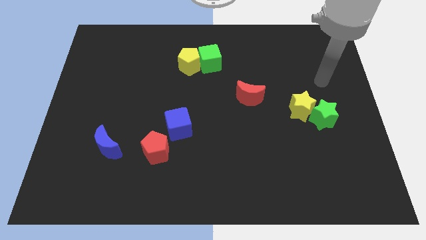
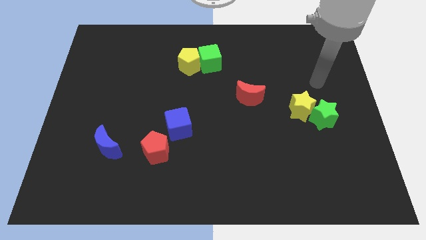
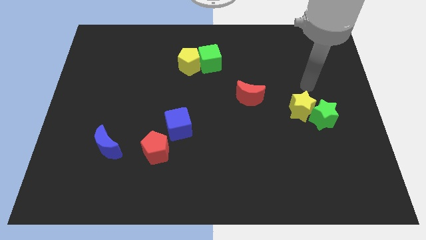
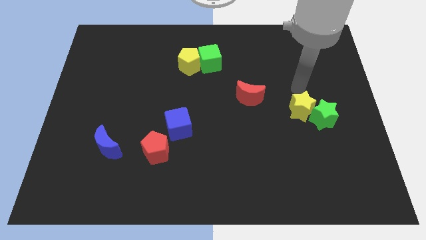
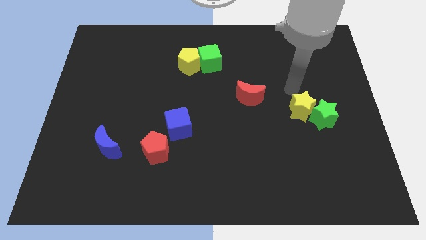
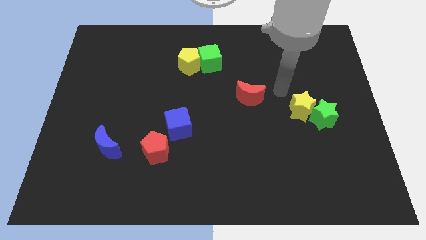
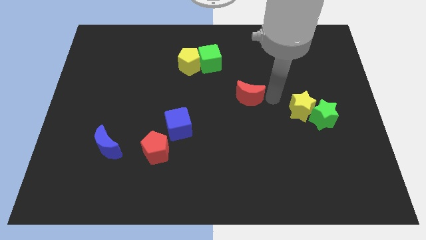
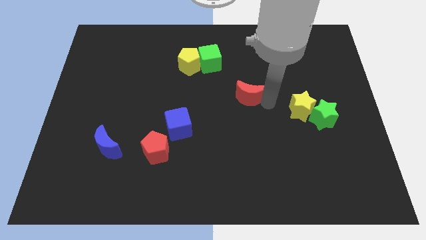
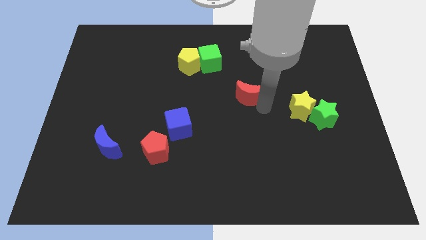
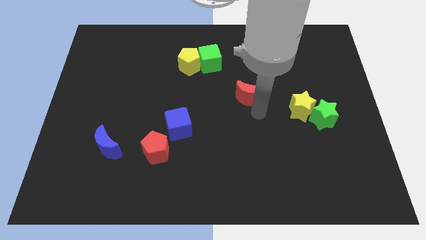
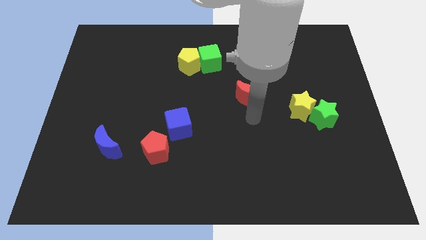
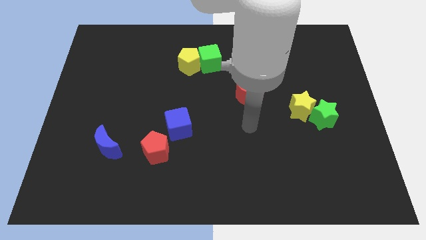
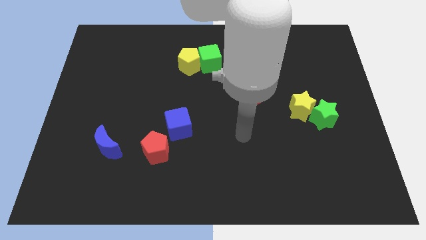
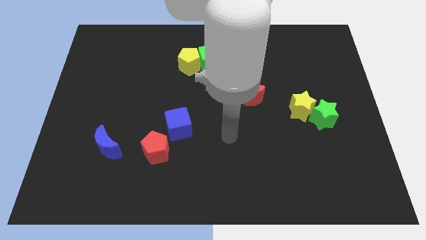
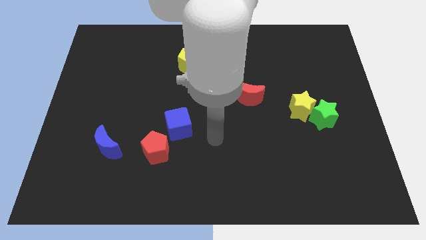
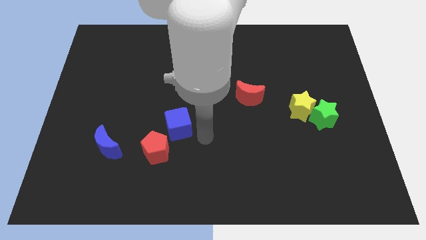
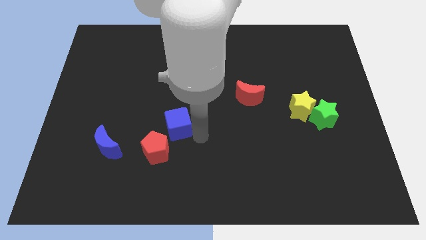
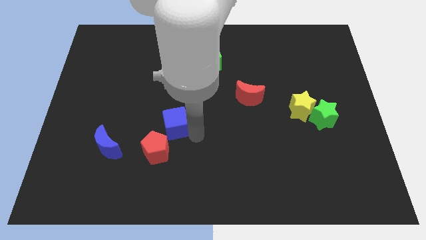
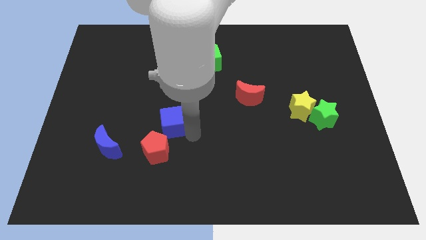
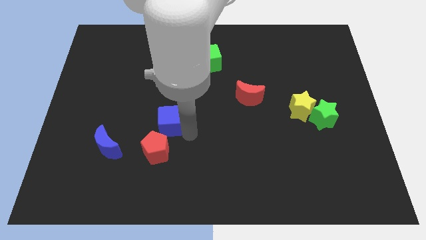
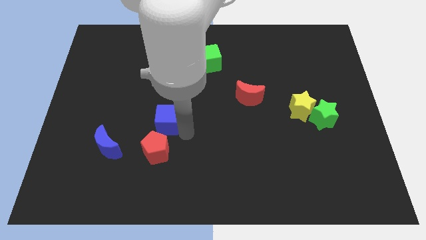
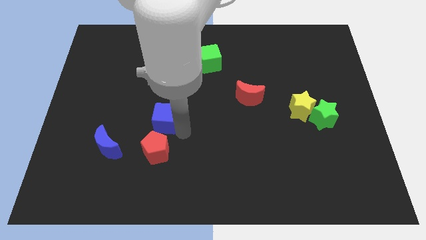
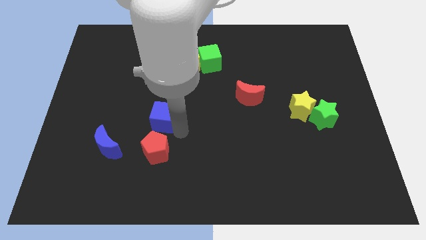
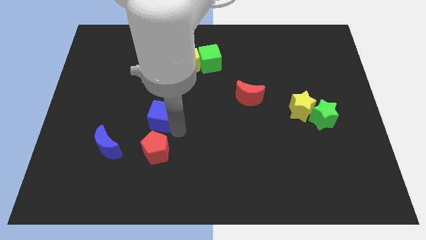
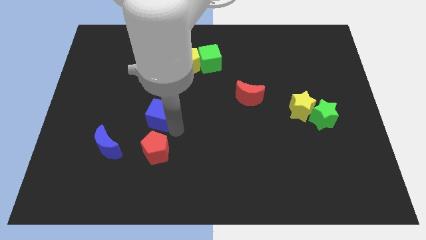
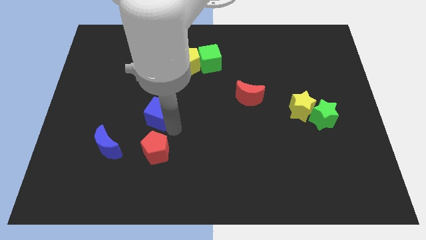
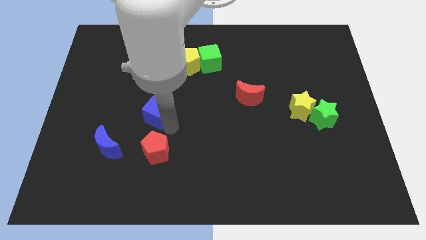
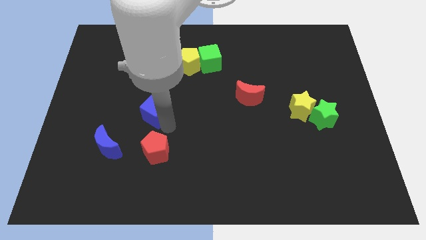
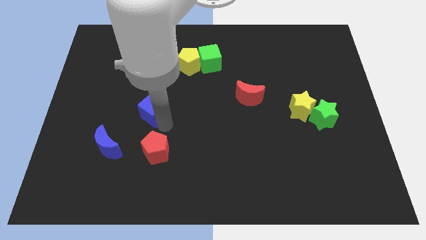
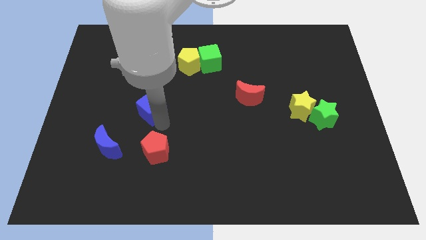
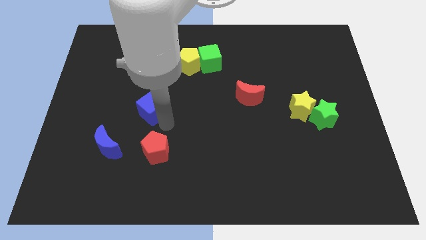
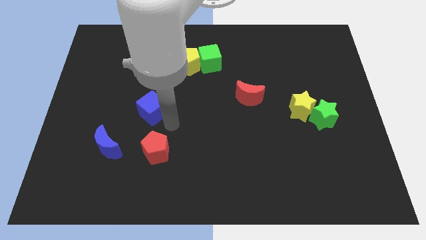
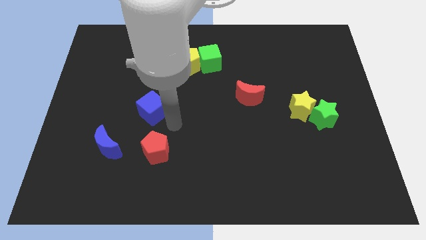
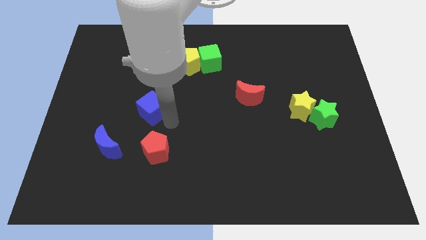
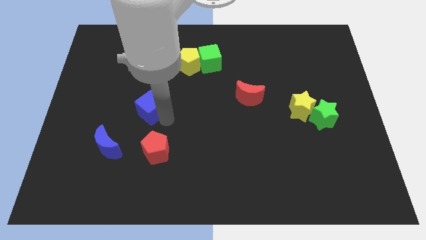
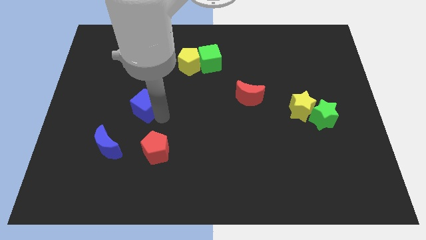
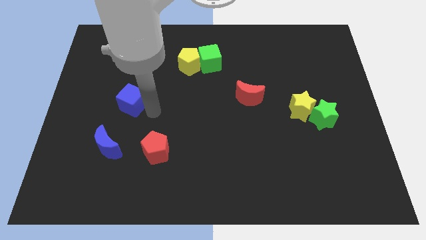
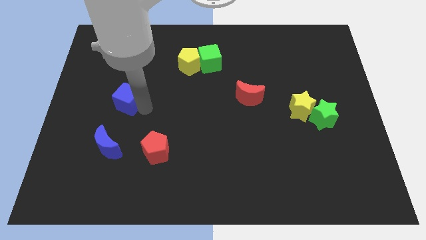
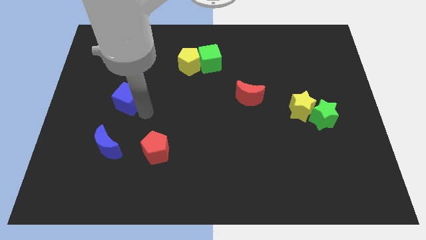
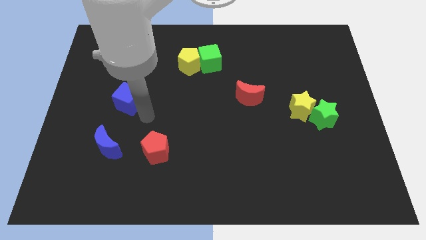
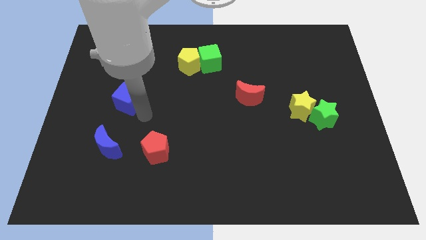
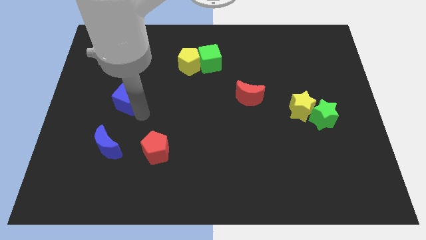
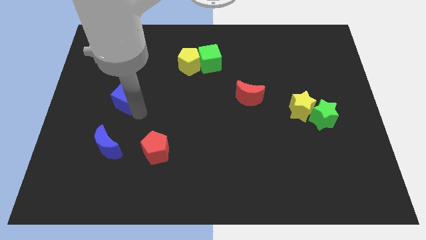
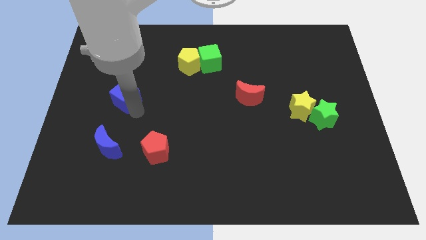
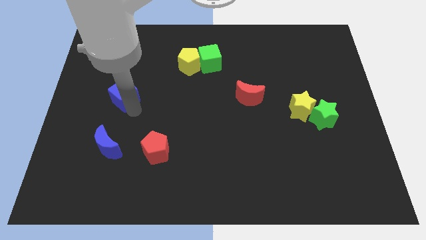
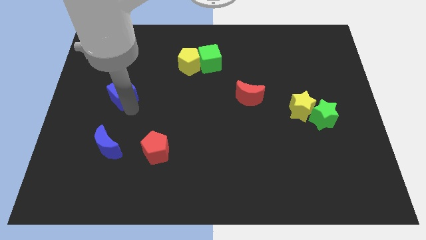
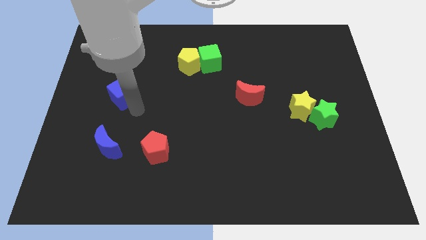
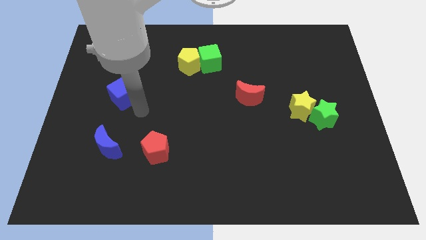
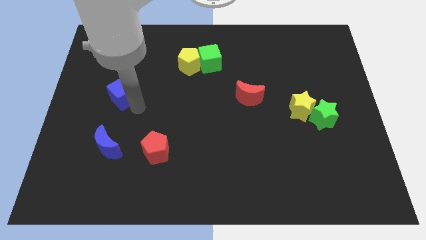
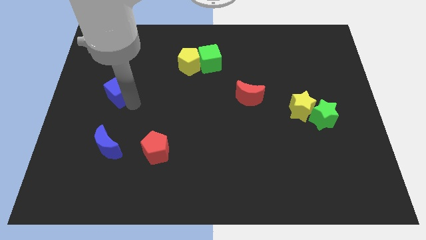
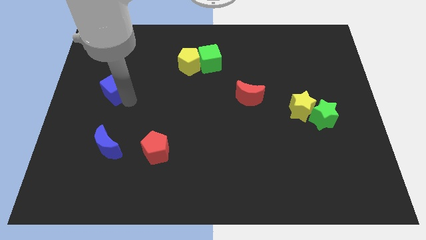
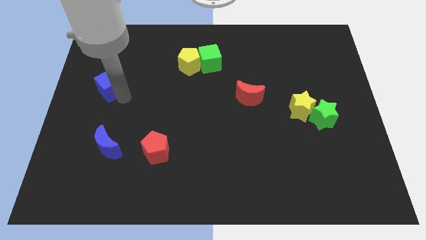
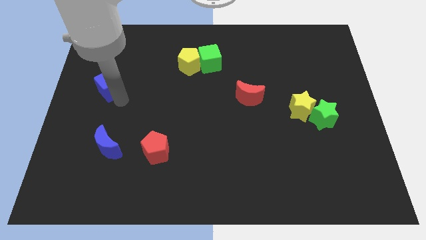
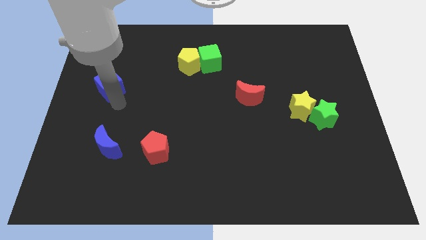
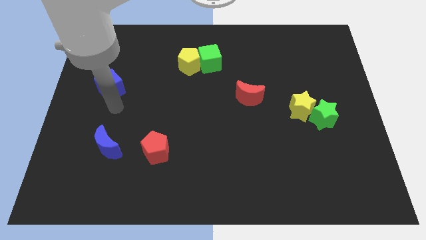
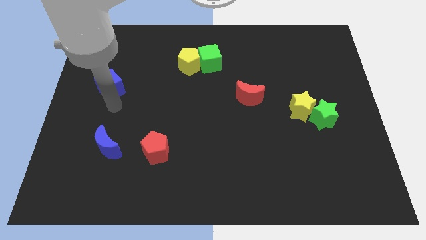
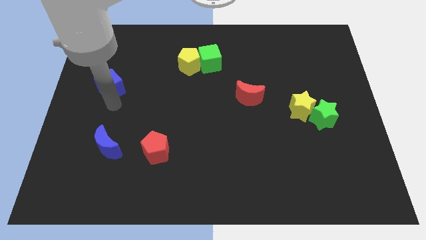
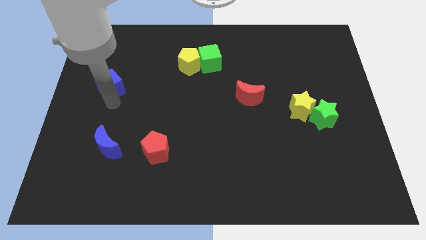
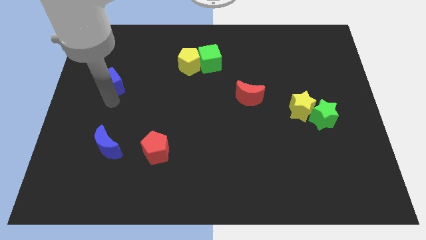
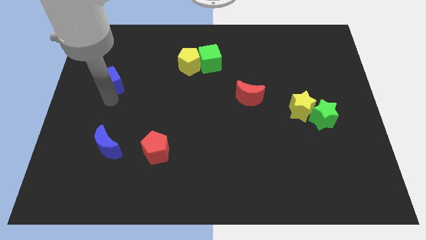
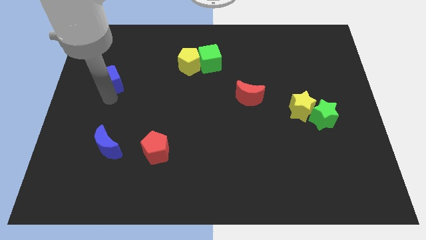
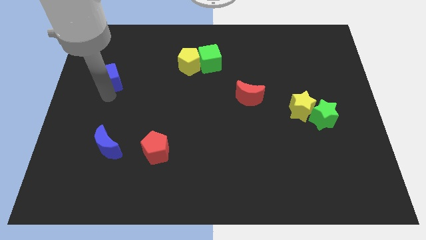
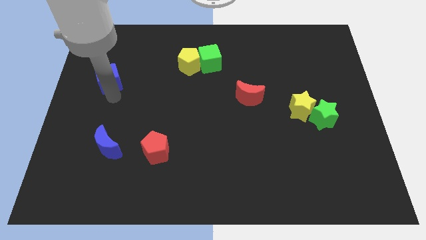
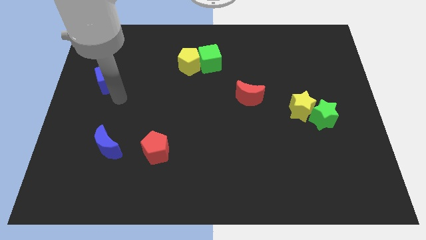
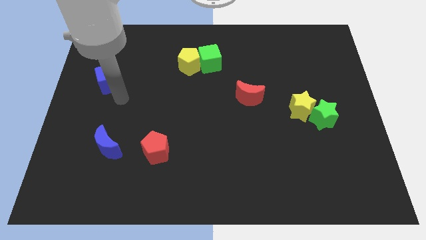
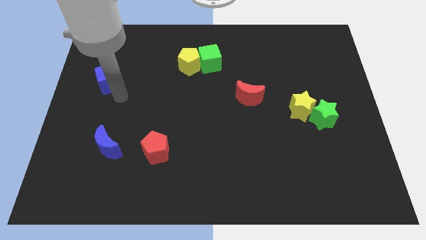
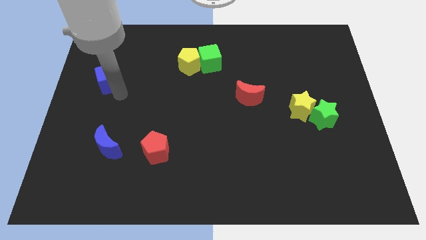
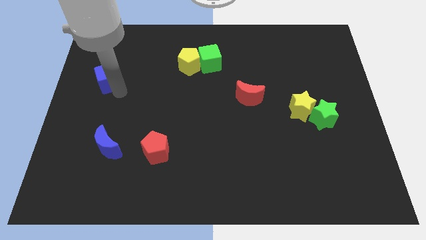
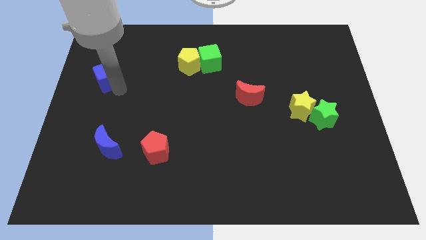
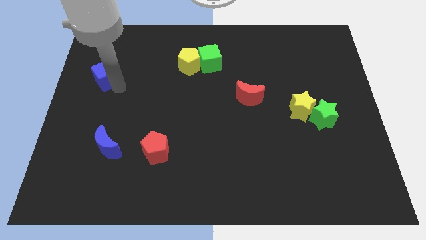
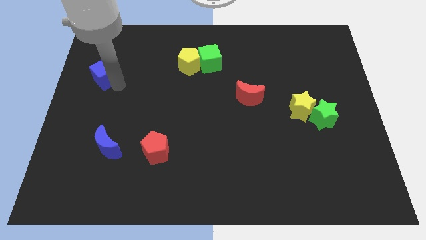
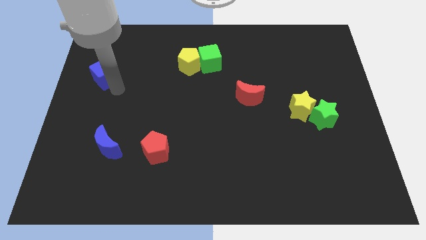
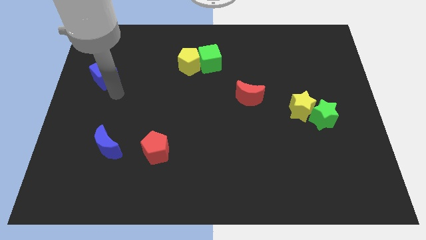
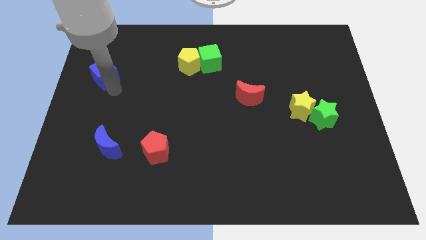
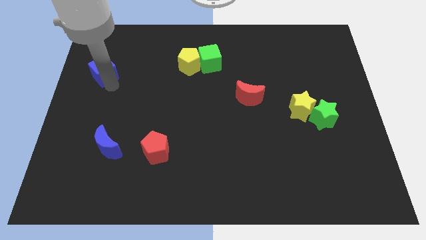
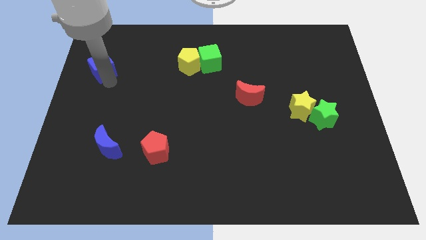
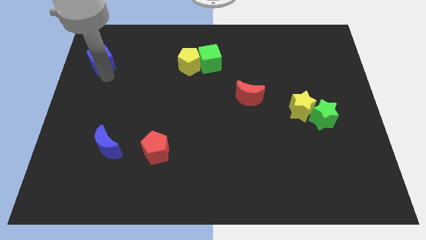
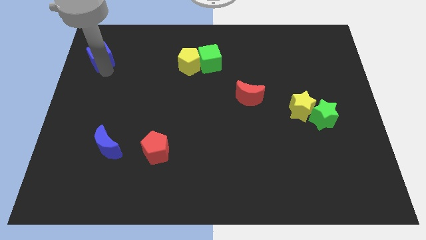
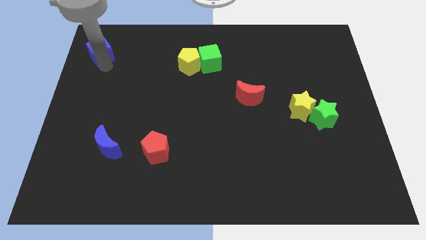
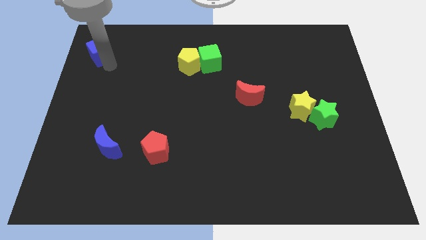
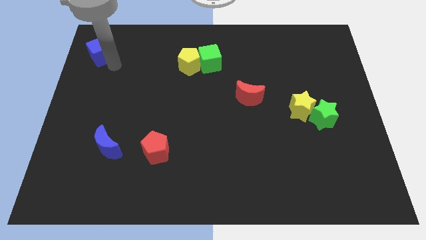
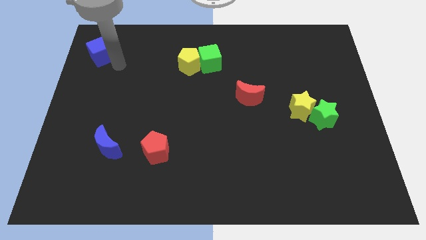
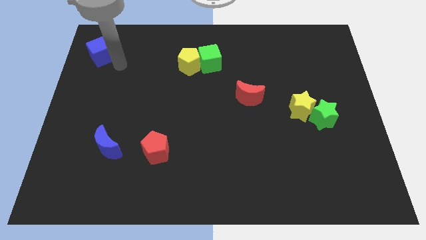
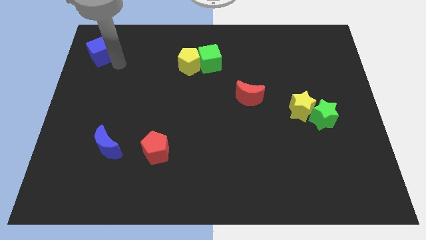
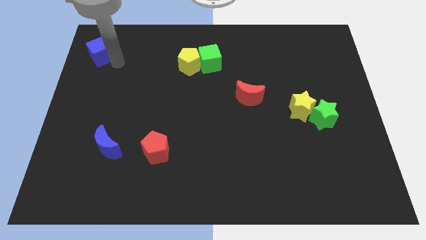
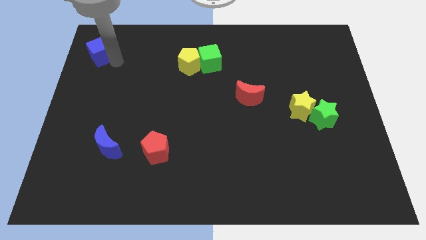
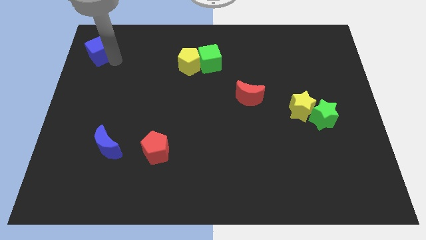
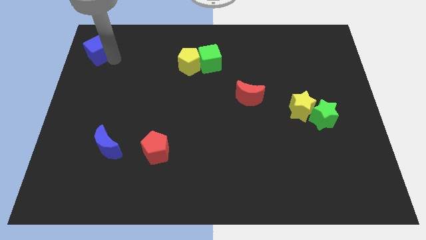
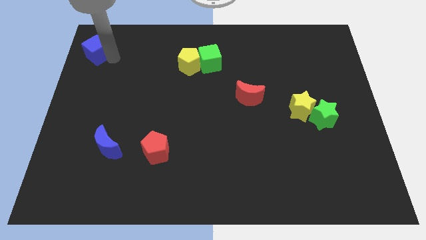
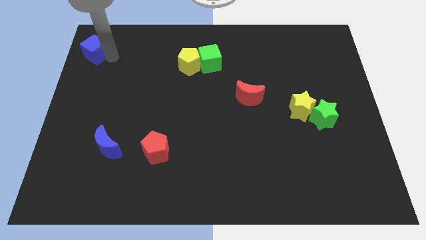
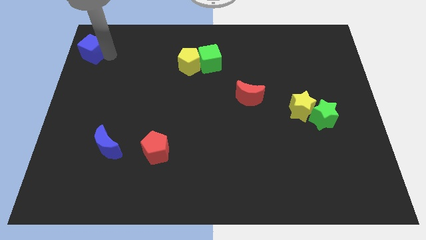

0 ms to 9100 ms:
push the blue cube to the top left of the board
